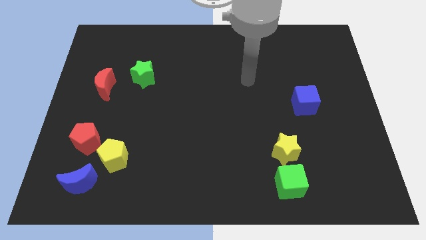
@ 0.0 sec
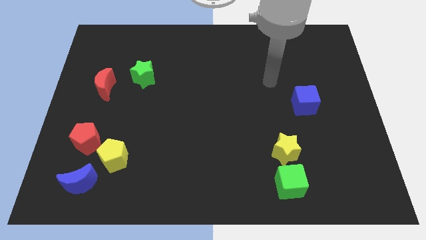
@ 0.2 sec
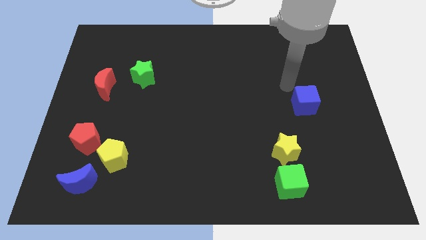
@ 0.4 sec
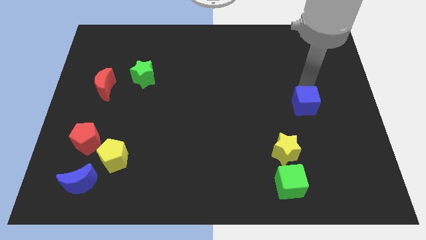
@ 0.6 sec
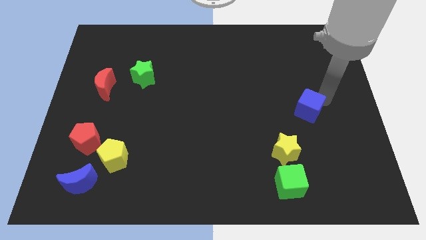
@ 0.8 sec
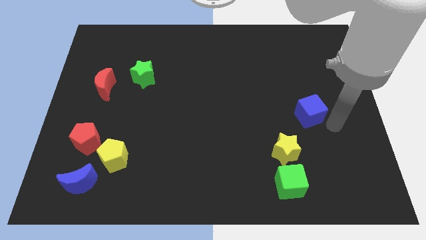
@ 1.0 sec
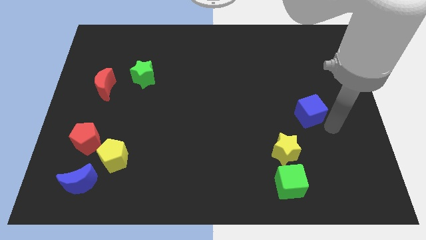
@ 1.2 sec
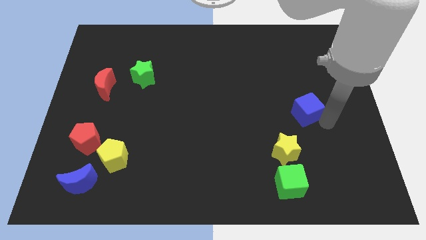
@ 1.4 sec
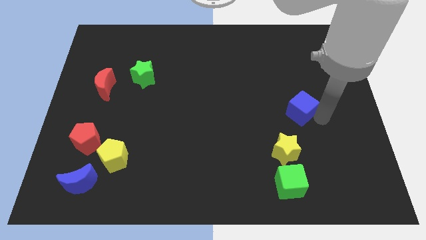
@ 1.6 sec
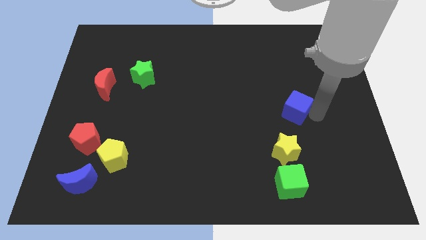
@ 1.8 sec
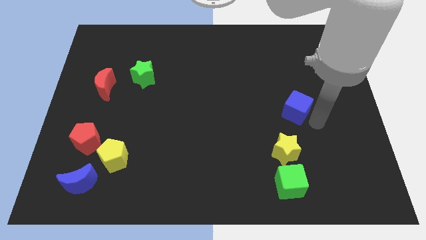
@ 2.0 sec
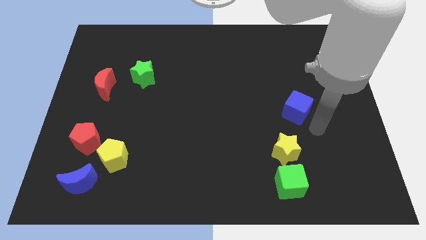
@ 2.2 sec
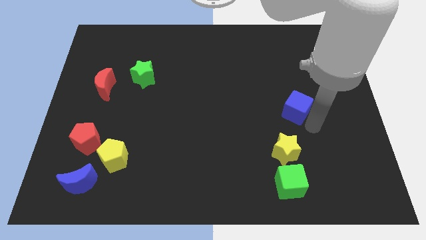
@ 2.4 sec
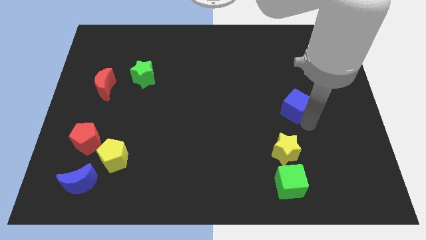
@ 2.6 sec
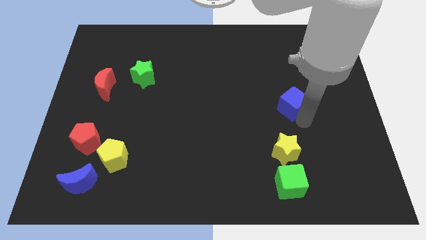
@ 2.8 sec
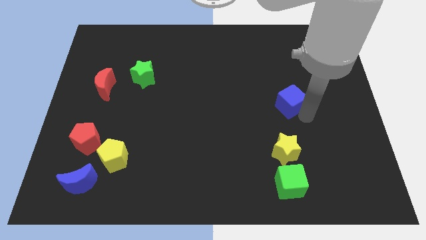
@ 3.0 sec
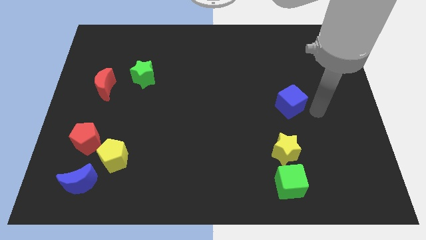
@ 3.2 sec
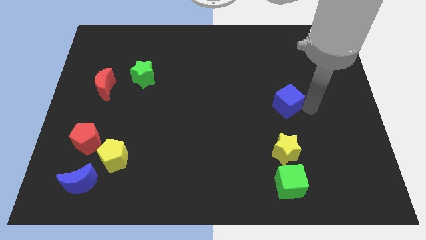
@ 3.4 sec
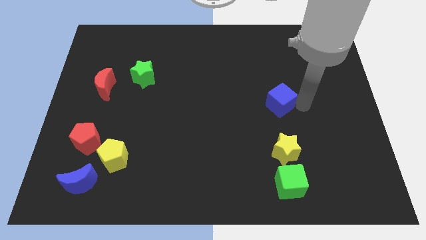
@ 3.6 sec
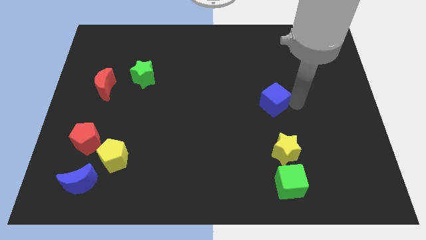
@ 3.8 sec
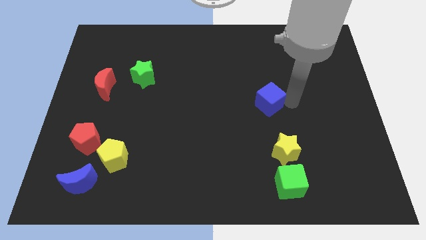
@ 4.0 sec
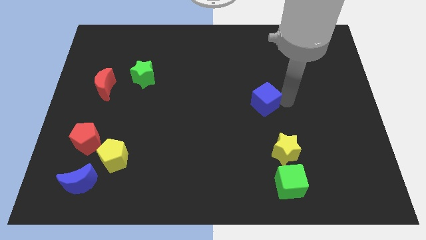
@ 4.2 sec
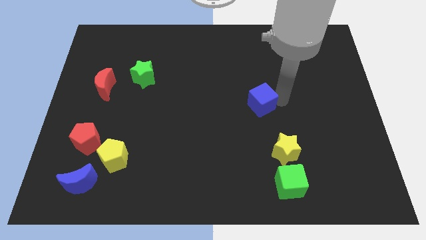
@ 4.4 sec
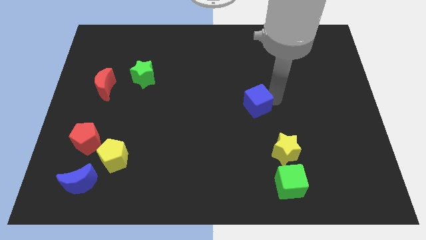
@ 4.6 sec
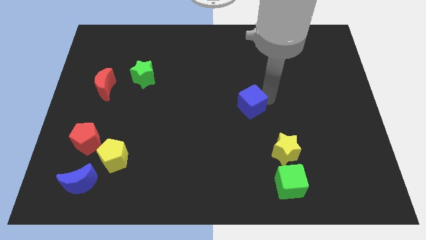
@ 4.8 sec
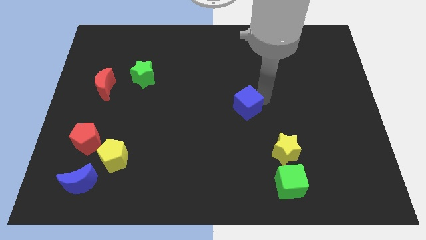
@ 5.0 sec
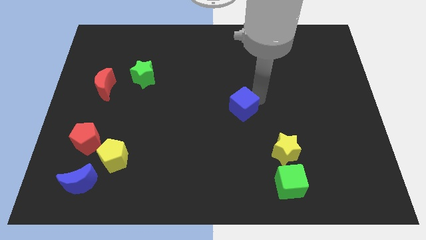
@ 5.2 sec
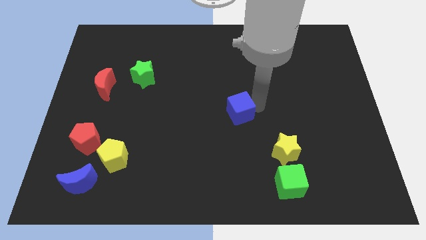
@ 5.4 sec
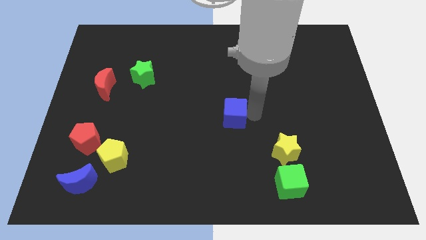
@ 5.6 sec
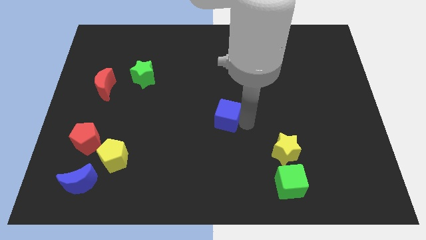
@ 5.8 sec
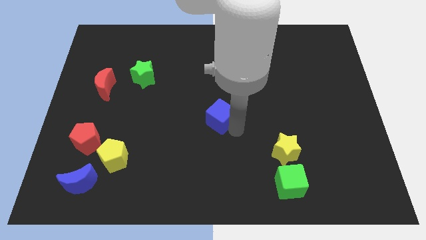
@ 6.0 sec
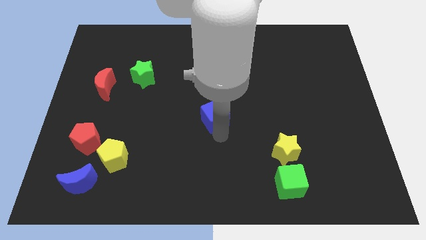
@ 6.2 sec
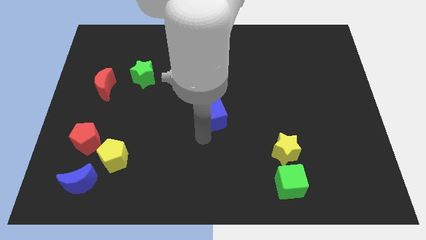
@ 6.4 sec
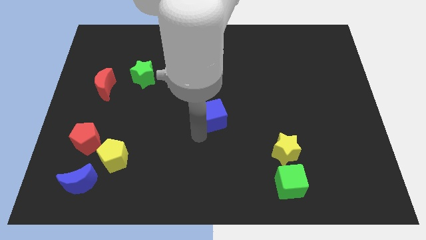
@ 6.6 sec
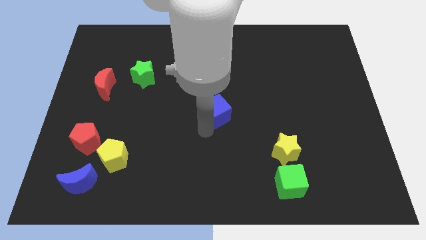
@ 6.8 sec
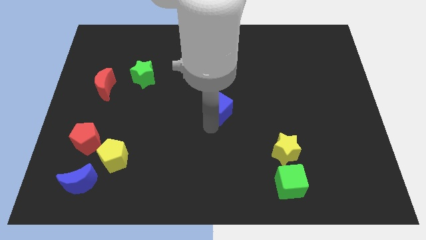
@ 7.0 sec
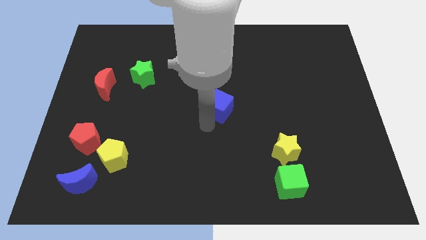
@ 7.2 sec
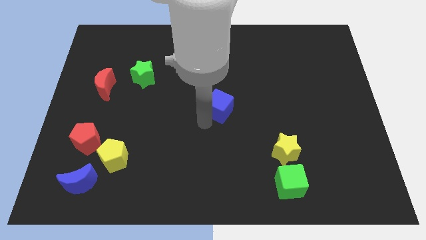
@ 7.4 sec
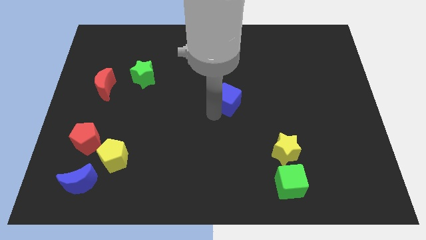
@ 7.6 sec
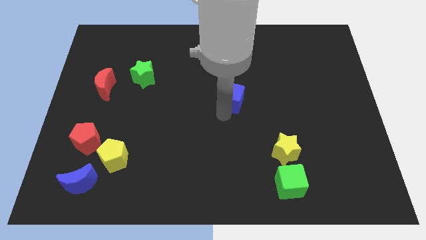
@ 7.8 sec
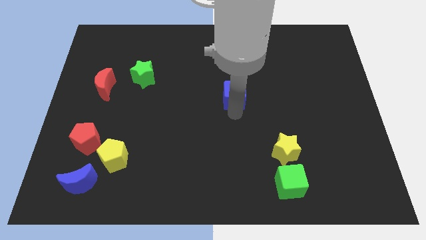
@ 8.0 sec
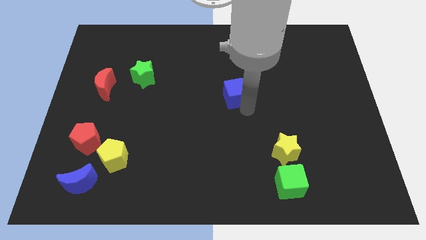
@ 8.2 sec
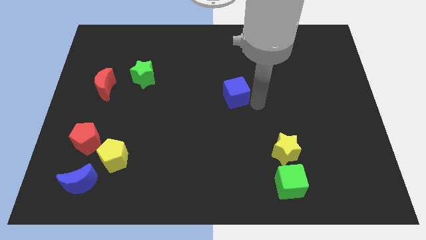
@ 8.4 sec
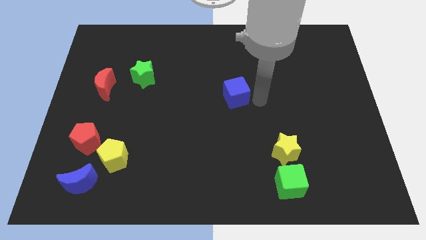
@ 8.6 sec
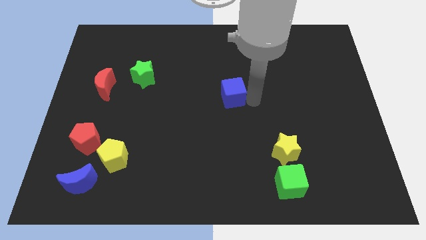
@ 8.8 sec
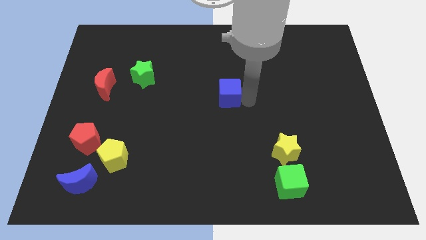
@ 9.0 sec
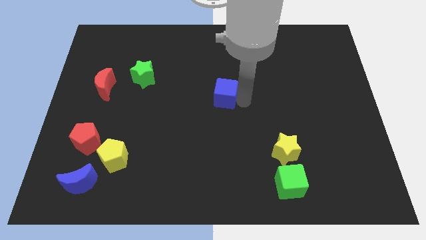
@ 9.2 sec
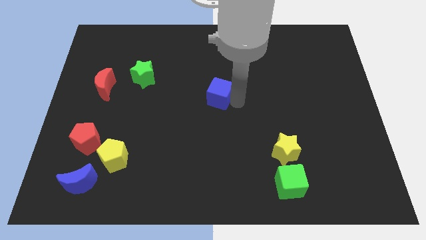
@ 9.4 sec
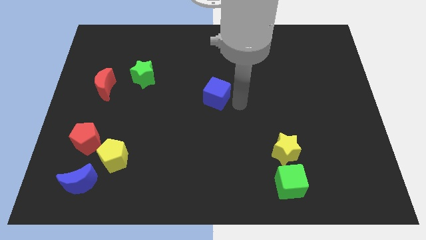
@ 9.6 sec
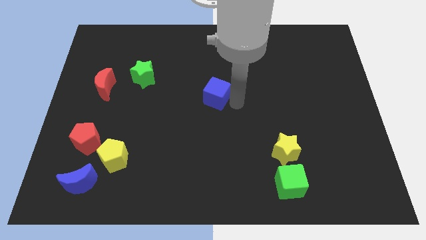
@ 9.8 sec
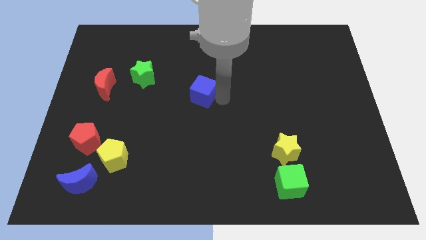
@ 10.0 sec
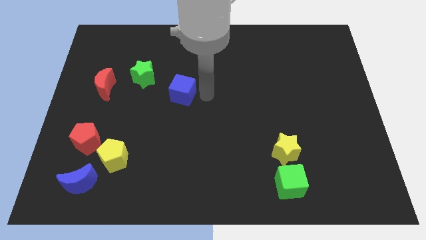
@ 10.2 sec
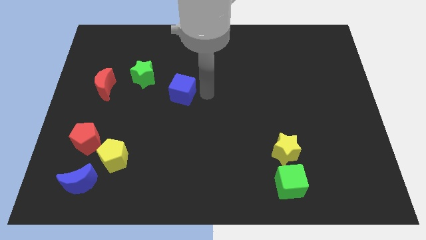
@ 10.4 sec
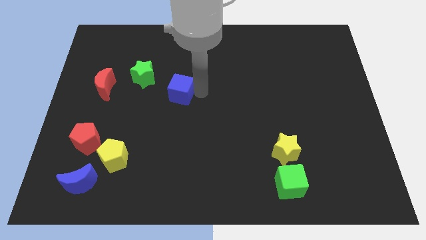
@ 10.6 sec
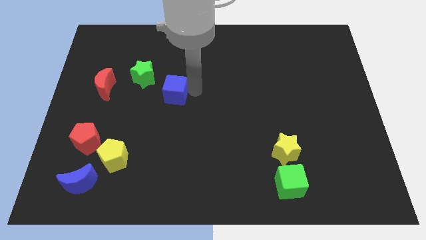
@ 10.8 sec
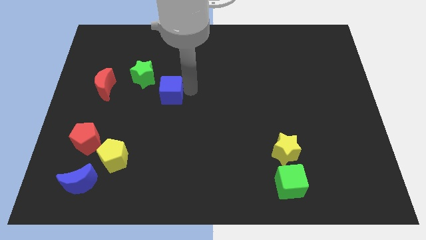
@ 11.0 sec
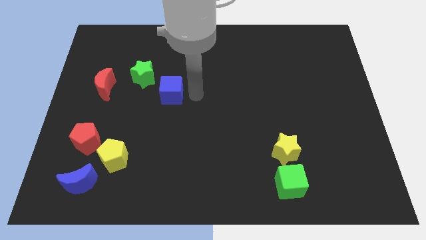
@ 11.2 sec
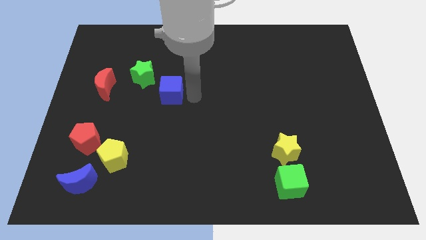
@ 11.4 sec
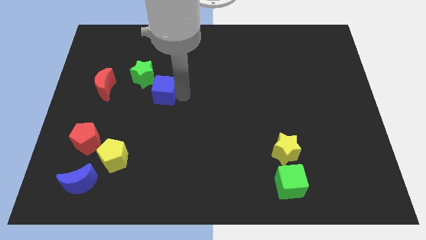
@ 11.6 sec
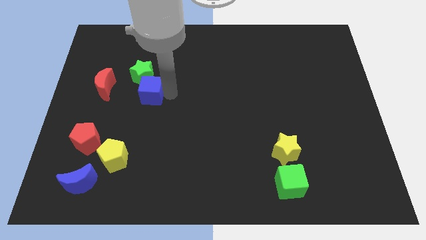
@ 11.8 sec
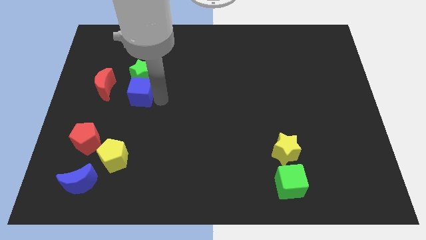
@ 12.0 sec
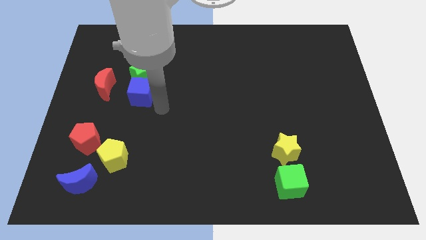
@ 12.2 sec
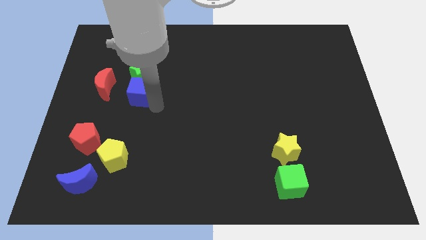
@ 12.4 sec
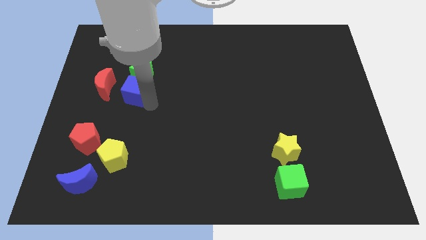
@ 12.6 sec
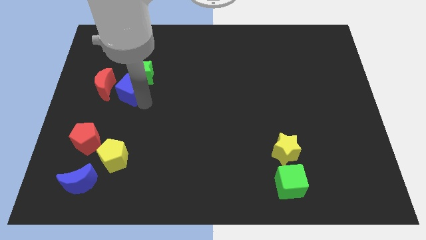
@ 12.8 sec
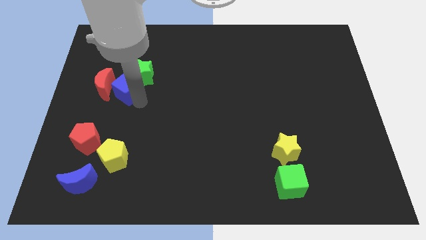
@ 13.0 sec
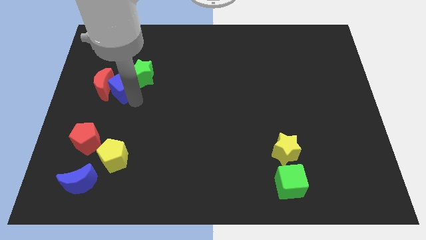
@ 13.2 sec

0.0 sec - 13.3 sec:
slide the blue cube to the left of the green star

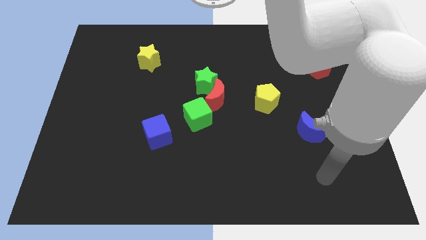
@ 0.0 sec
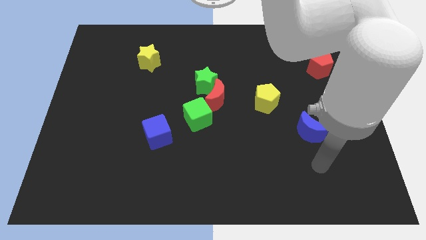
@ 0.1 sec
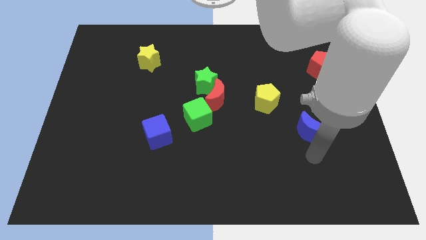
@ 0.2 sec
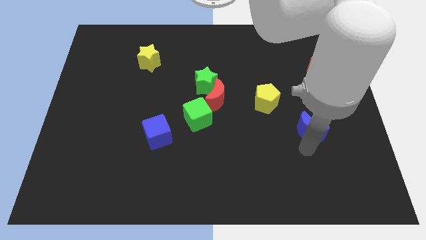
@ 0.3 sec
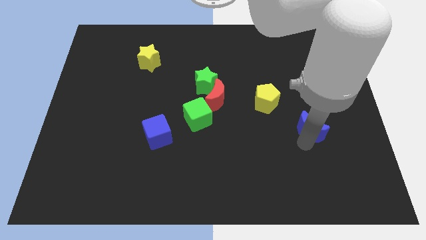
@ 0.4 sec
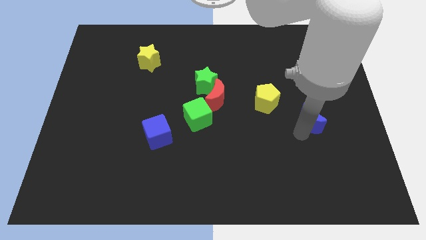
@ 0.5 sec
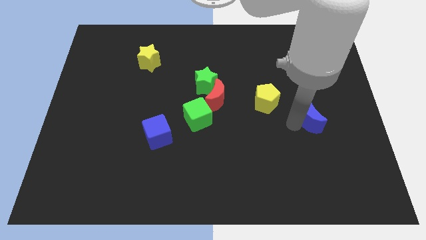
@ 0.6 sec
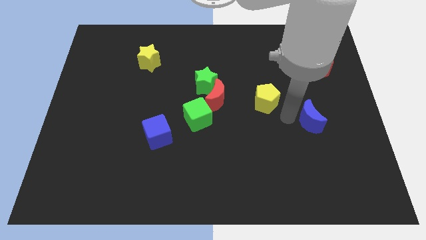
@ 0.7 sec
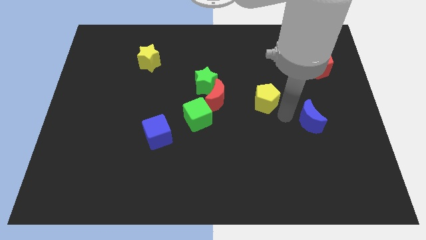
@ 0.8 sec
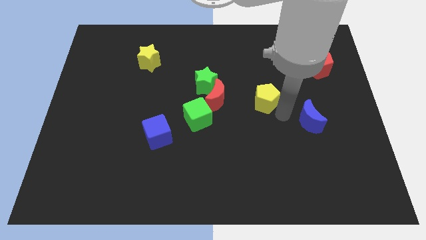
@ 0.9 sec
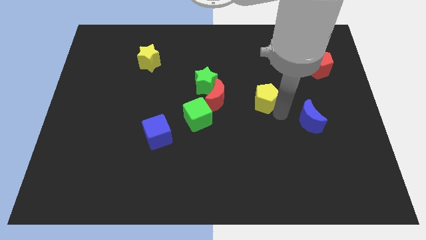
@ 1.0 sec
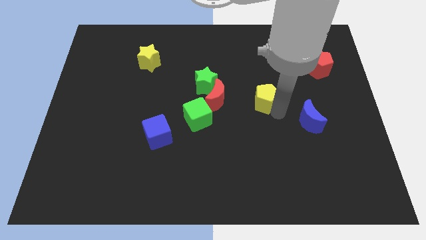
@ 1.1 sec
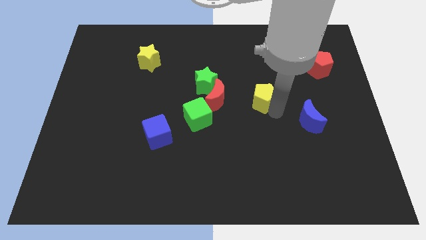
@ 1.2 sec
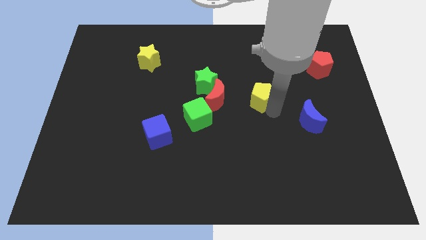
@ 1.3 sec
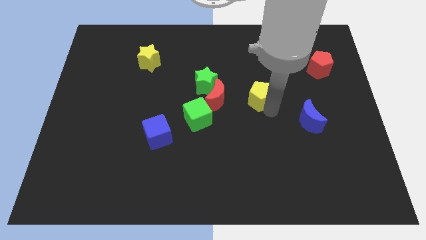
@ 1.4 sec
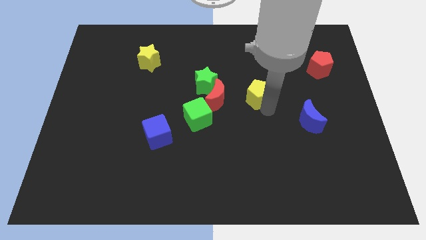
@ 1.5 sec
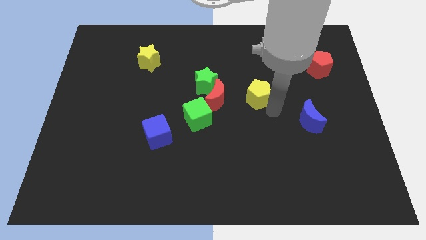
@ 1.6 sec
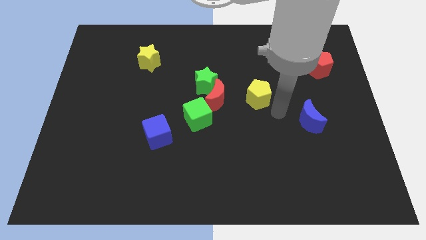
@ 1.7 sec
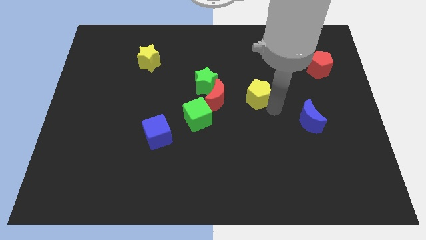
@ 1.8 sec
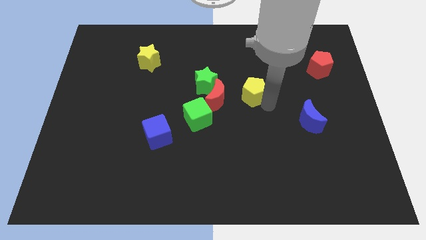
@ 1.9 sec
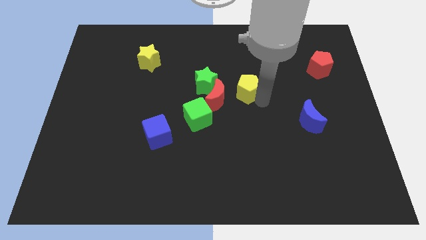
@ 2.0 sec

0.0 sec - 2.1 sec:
put the yellow pentagon to the top right of the red moon
